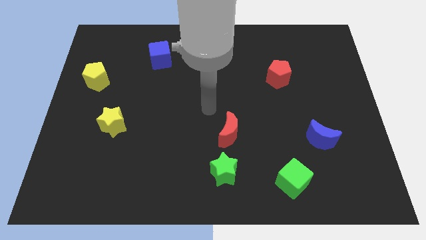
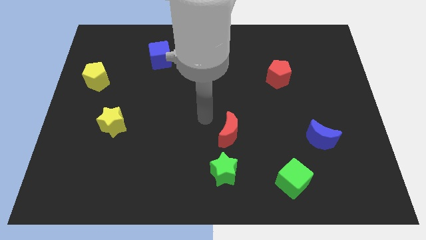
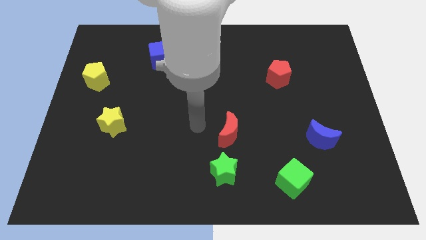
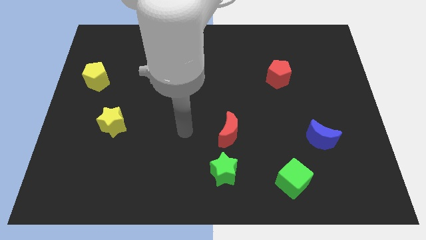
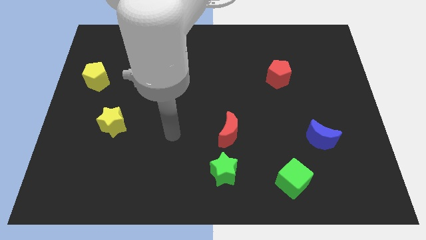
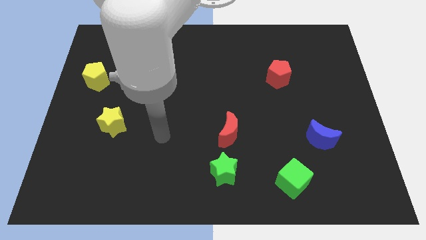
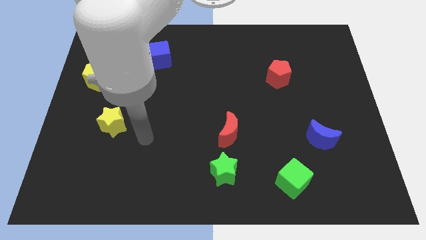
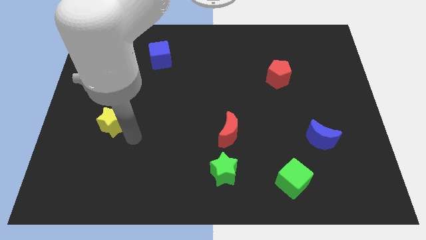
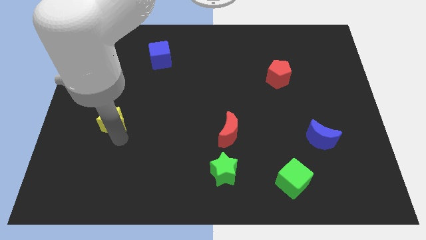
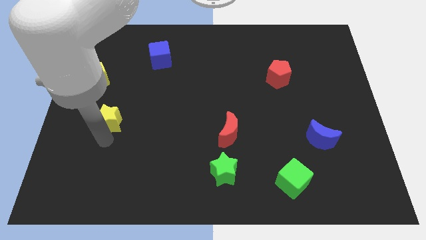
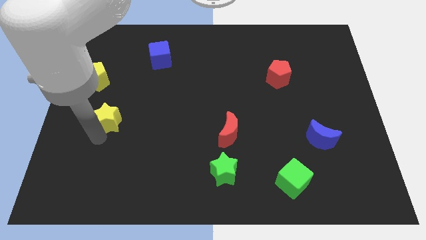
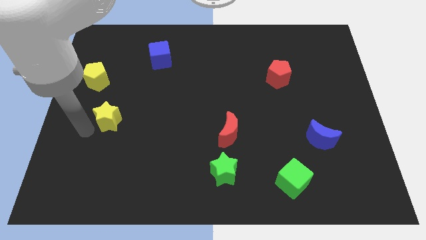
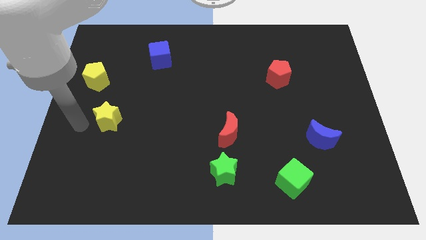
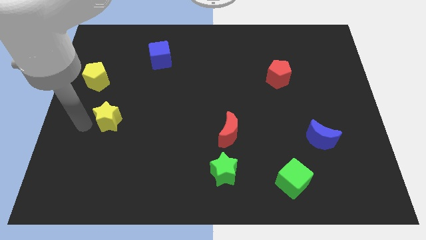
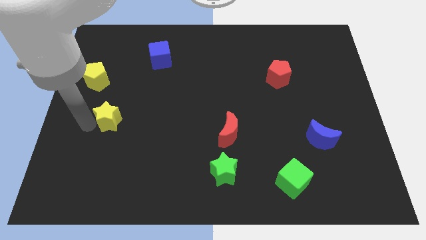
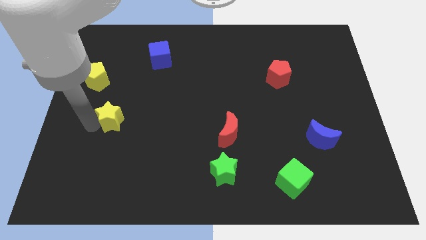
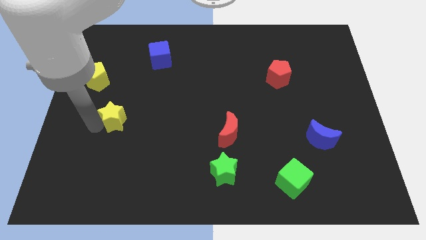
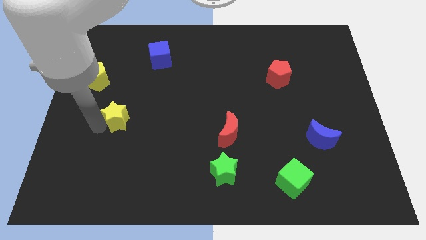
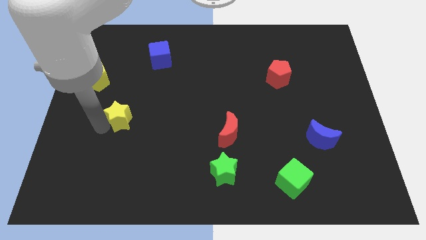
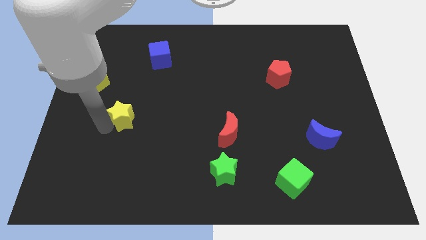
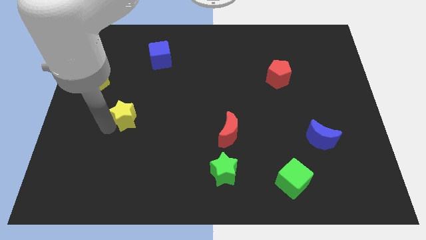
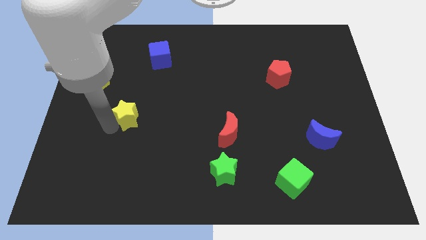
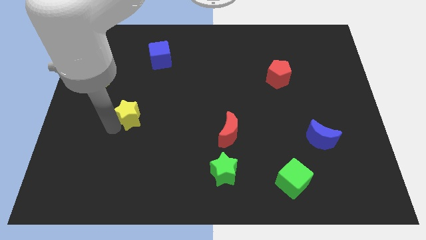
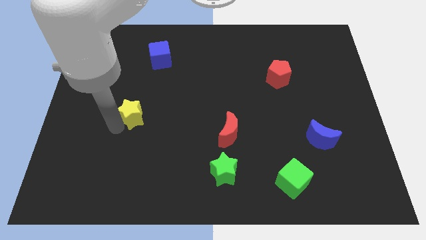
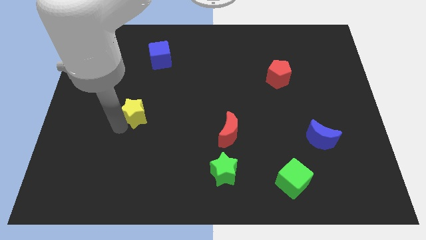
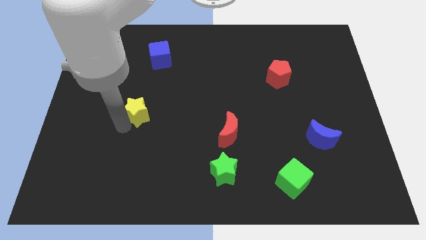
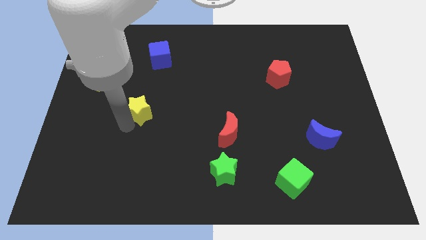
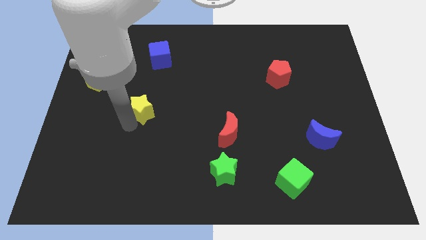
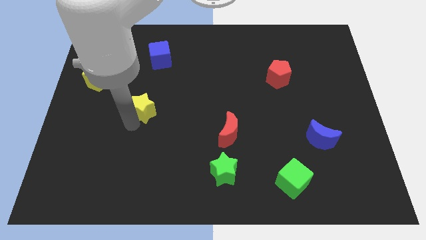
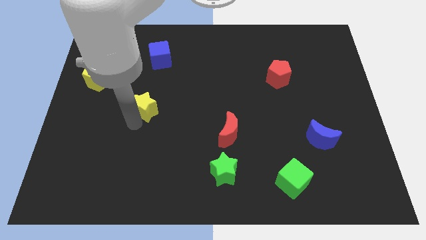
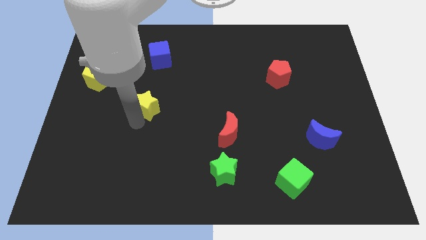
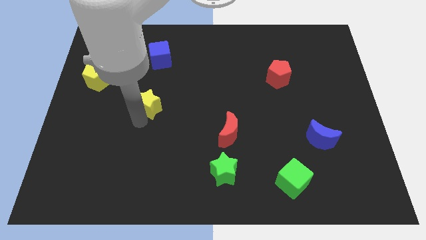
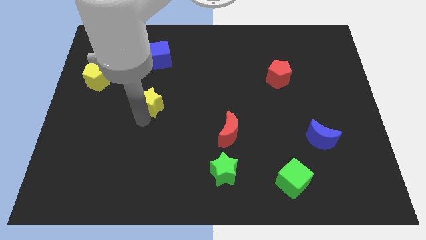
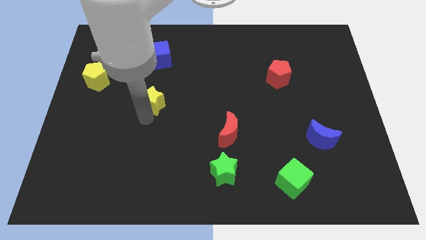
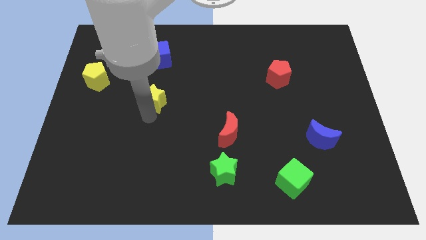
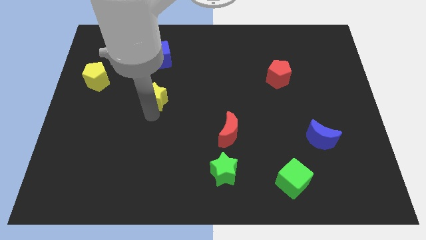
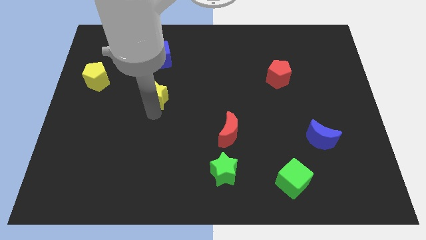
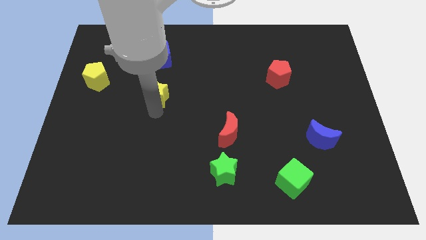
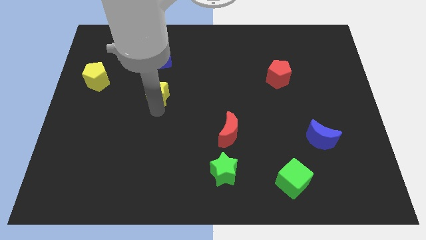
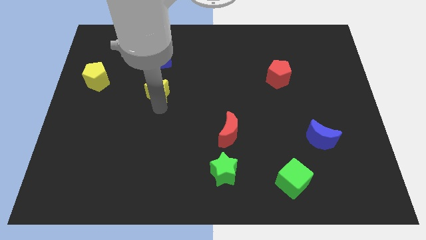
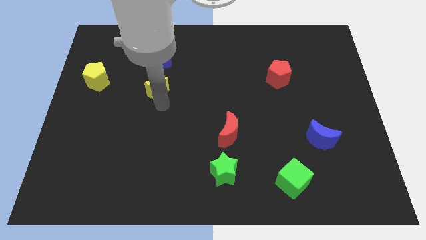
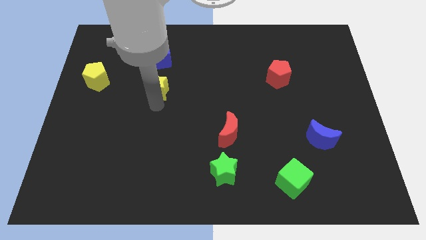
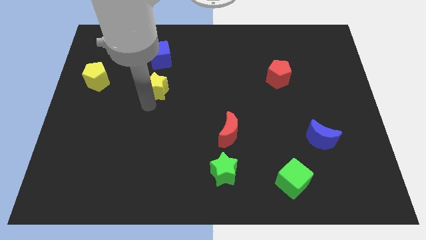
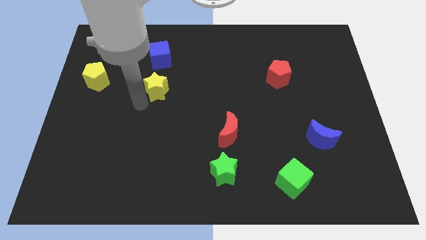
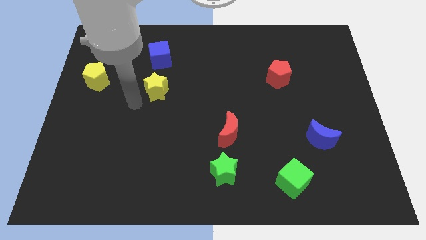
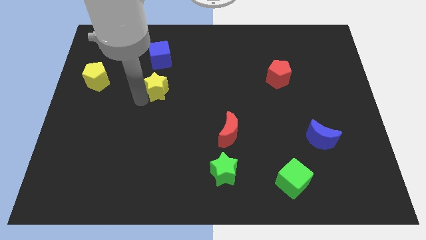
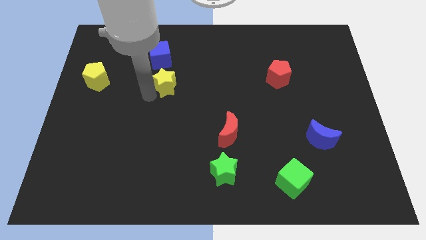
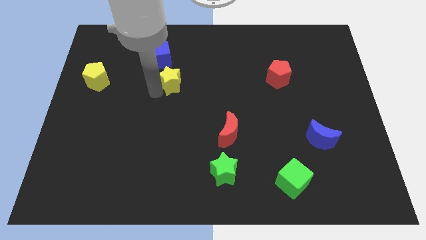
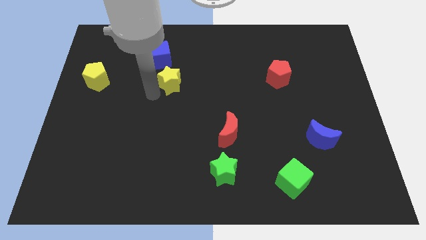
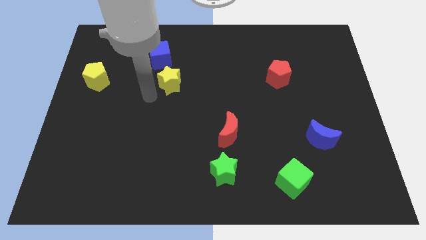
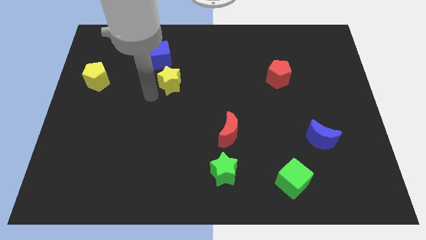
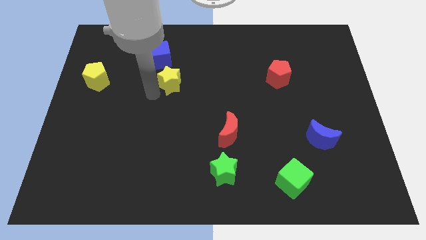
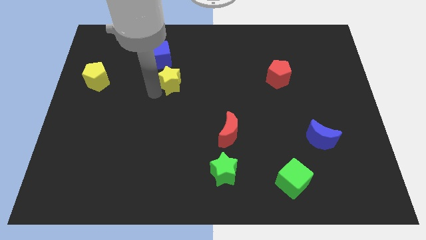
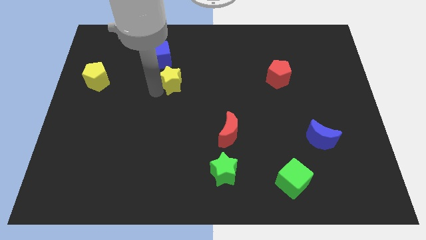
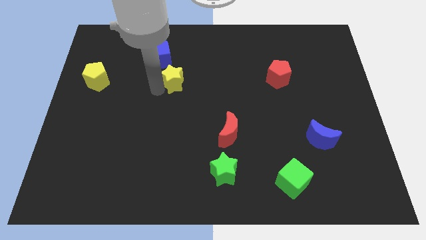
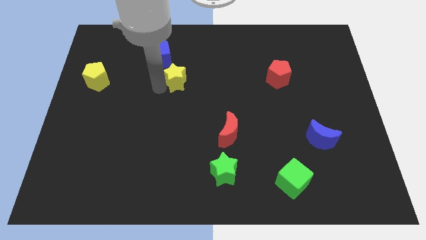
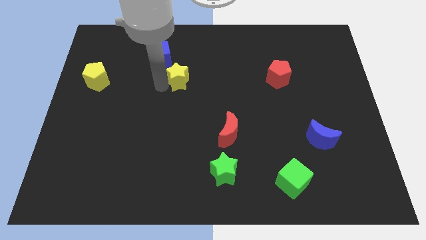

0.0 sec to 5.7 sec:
move the yellow star up and right diagonally

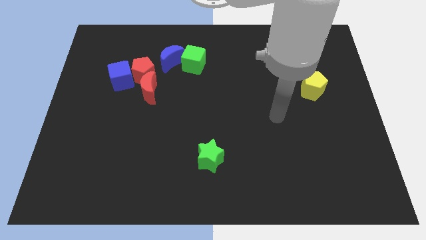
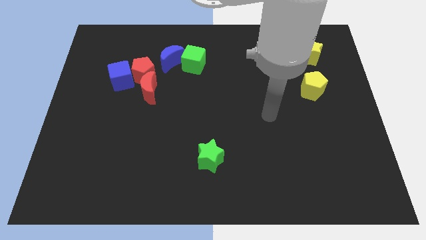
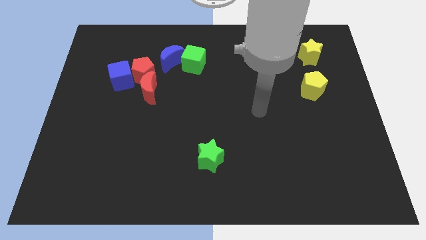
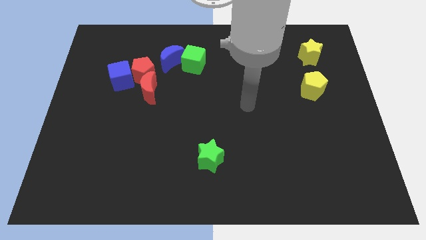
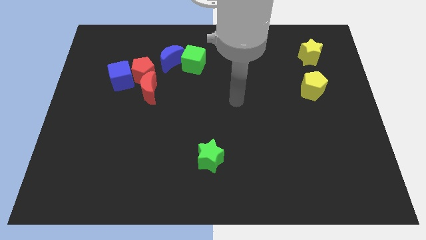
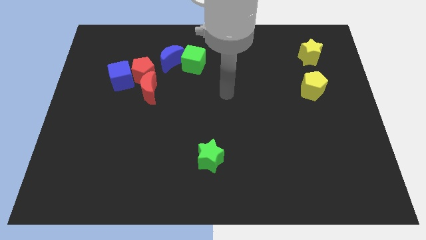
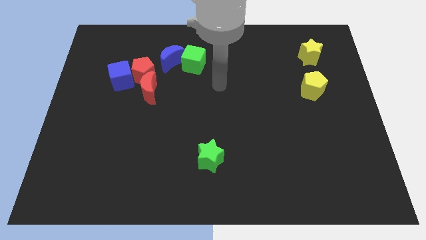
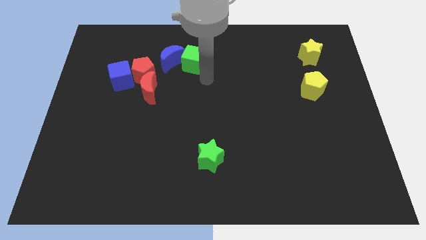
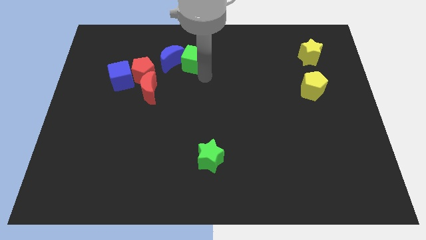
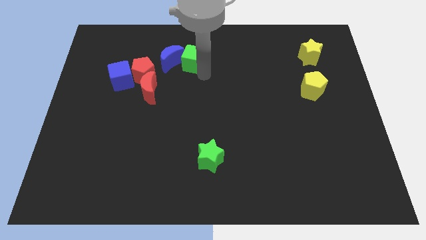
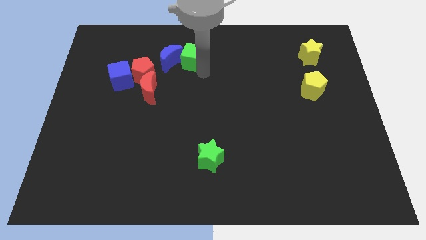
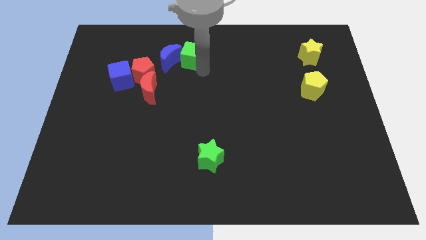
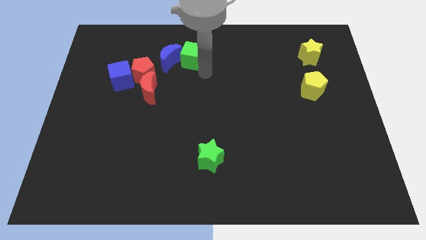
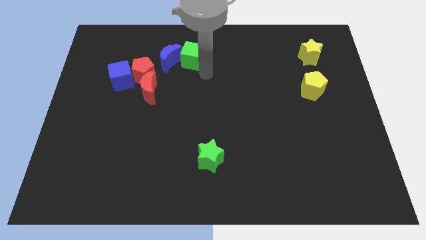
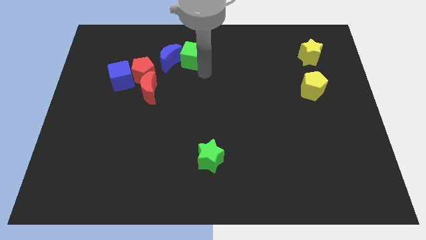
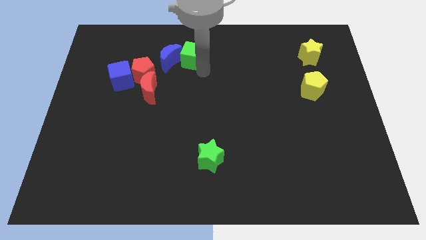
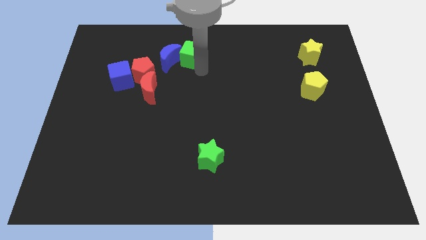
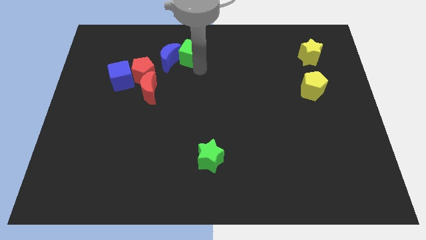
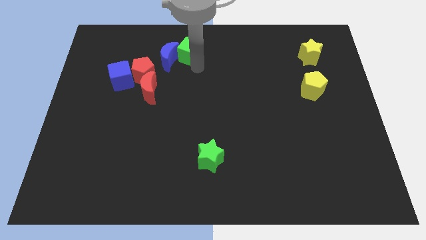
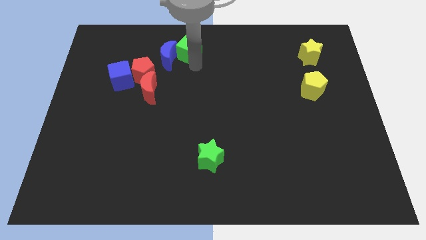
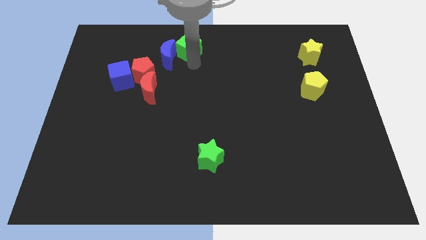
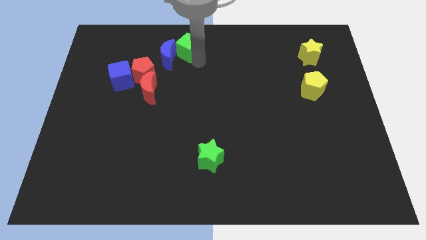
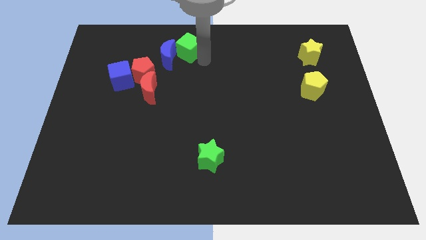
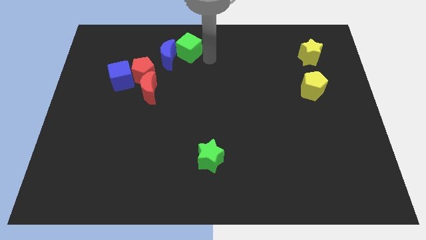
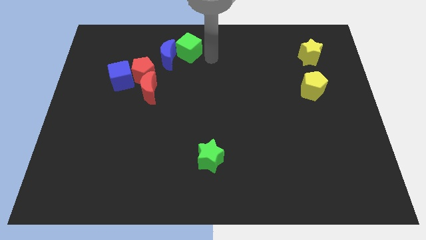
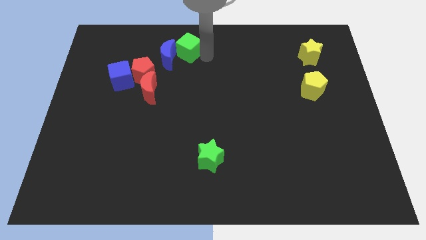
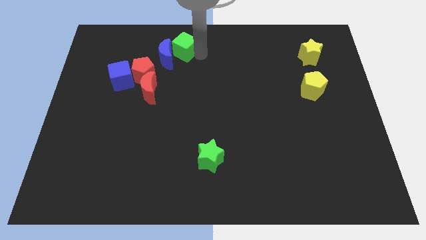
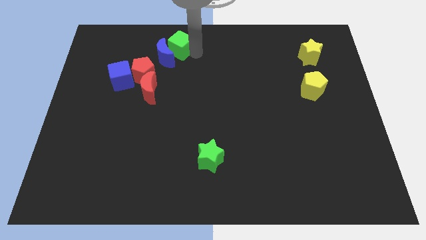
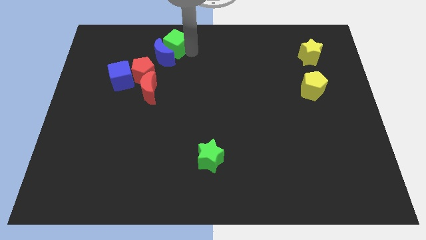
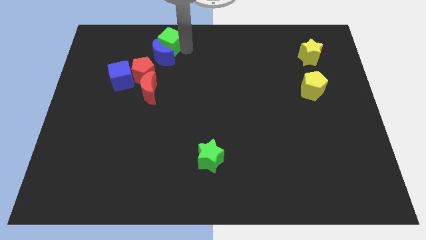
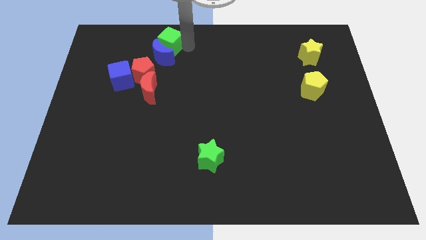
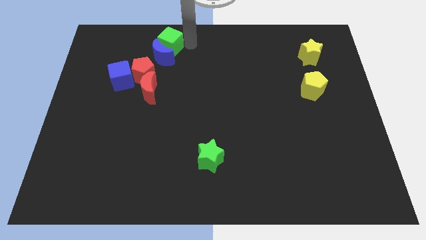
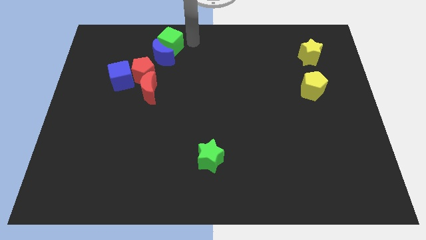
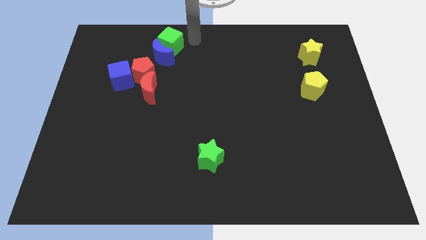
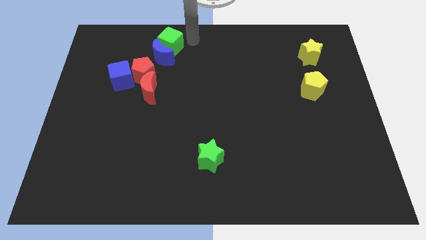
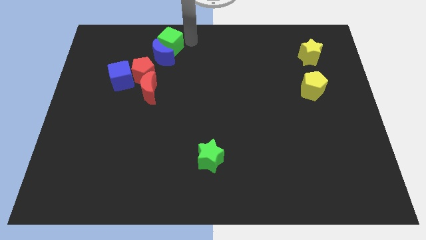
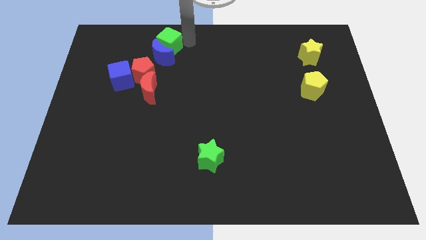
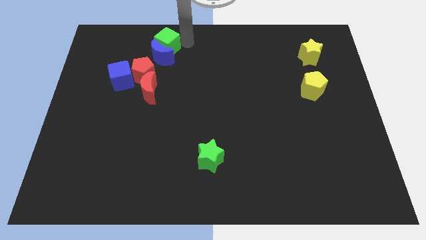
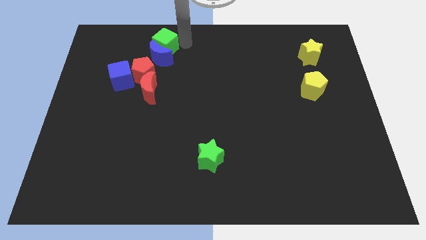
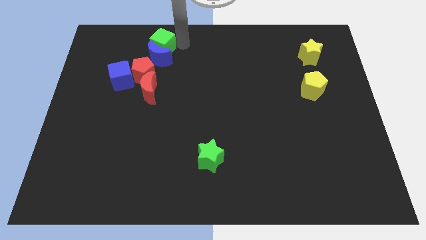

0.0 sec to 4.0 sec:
move the green cube to the left a little bit
